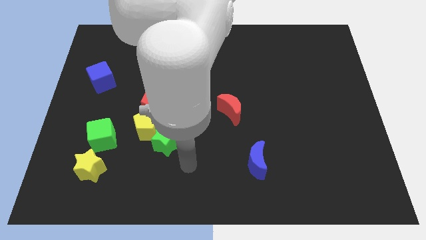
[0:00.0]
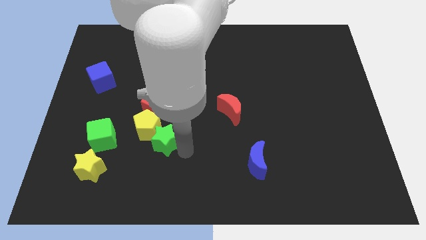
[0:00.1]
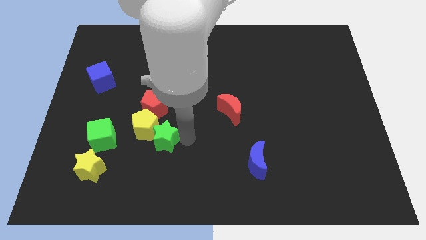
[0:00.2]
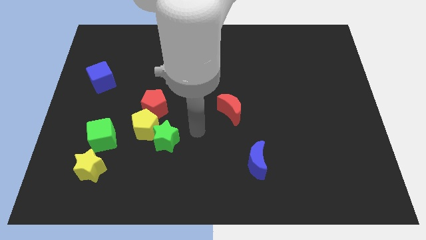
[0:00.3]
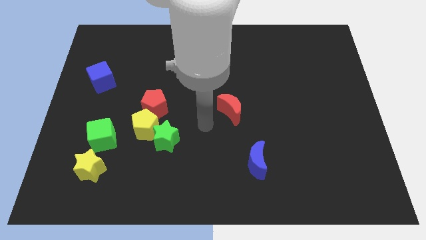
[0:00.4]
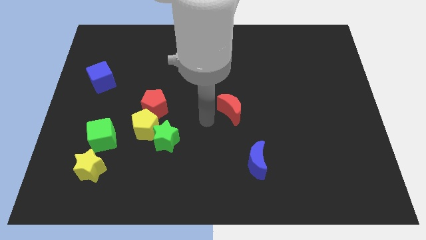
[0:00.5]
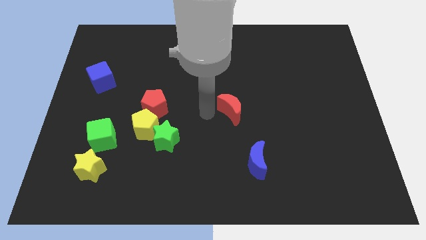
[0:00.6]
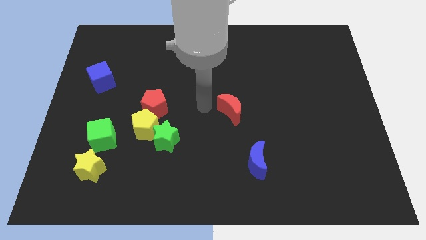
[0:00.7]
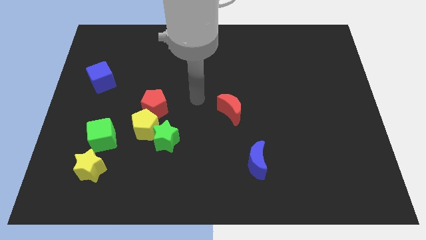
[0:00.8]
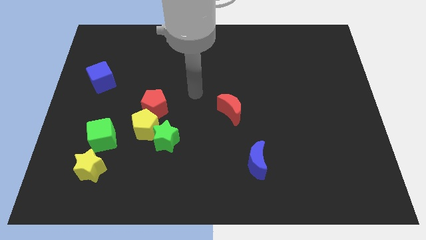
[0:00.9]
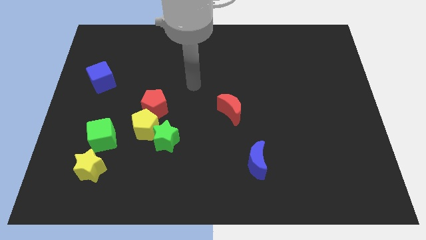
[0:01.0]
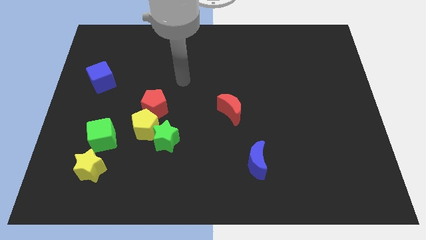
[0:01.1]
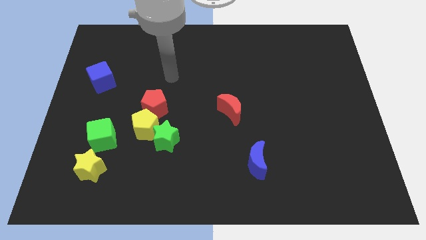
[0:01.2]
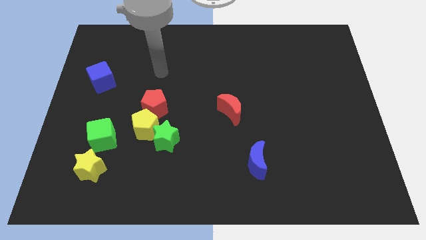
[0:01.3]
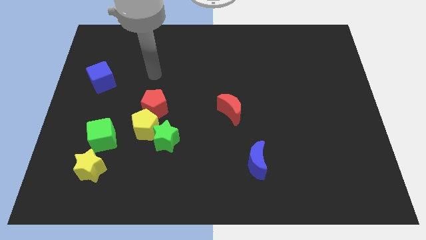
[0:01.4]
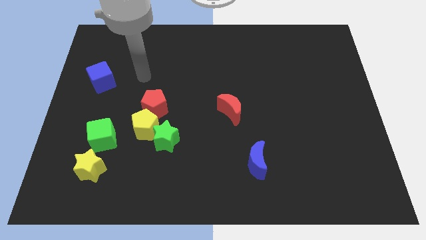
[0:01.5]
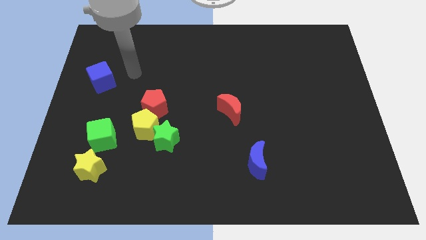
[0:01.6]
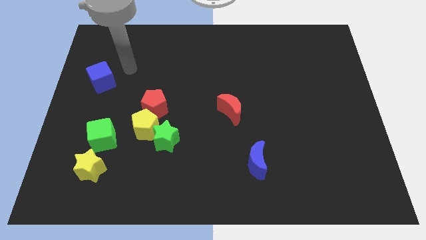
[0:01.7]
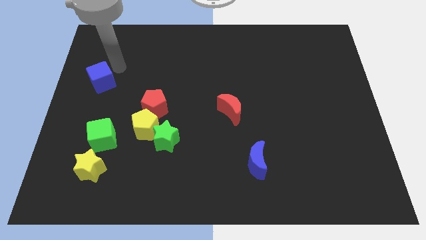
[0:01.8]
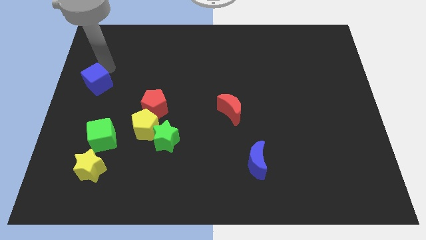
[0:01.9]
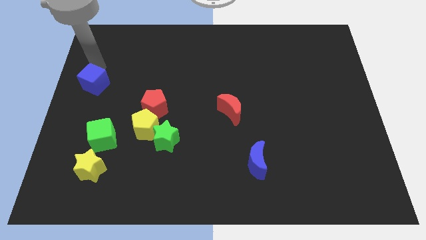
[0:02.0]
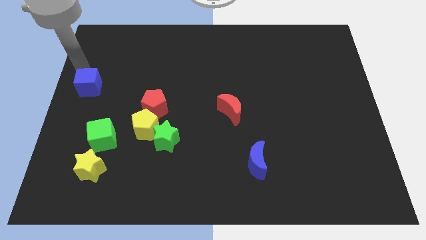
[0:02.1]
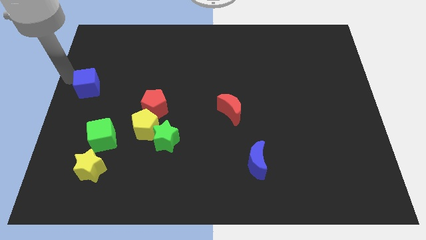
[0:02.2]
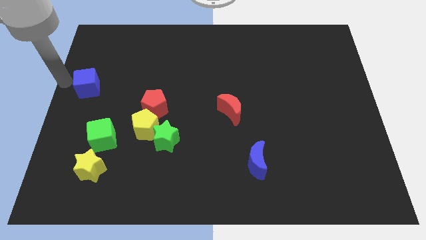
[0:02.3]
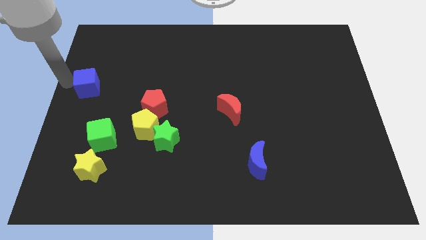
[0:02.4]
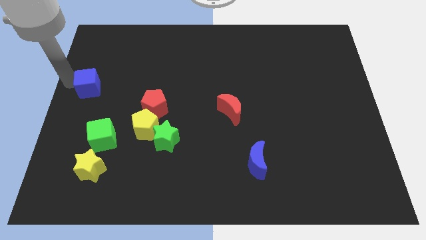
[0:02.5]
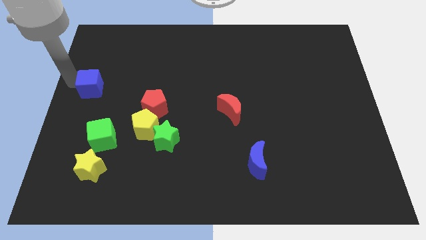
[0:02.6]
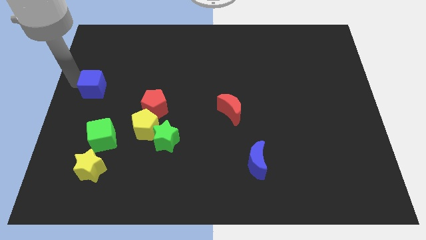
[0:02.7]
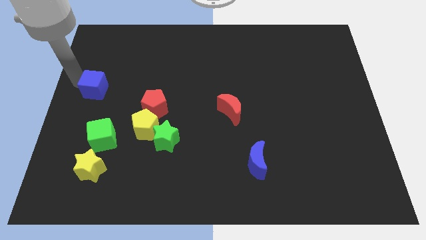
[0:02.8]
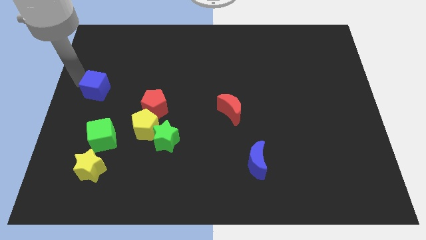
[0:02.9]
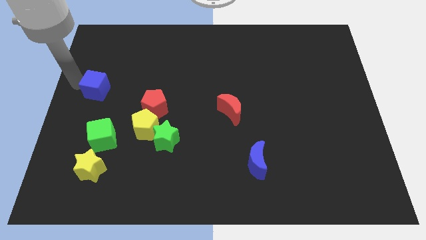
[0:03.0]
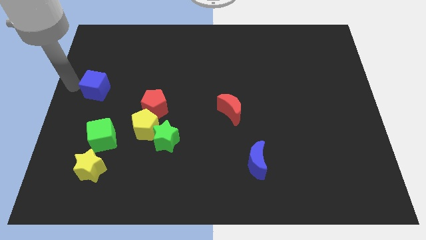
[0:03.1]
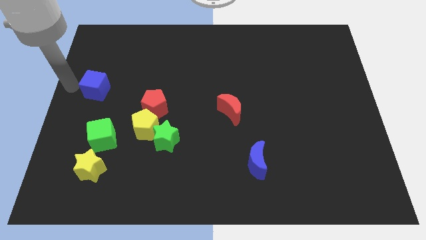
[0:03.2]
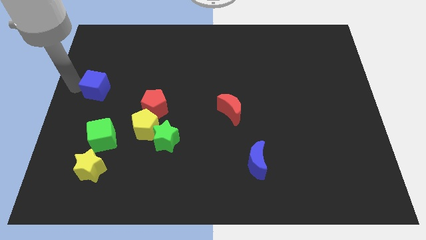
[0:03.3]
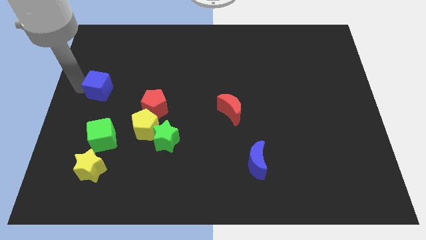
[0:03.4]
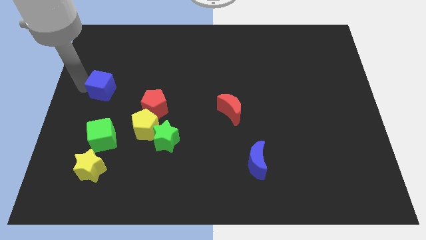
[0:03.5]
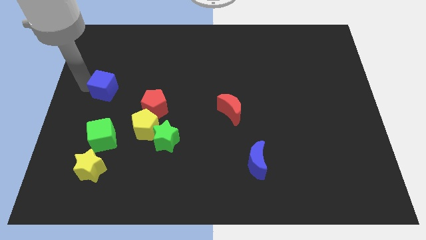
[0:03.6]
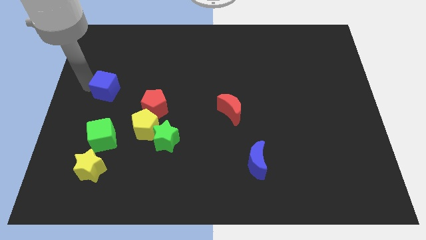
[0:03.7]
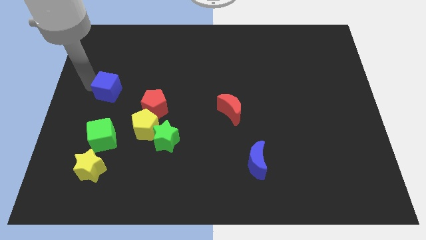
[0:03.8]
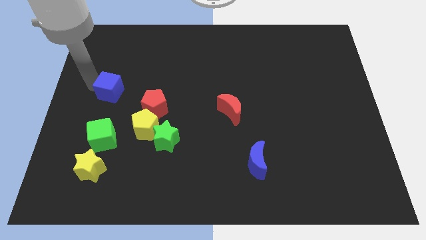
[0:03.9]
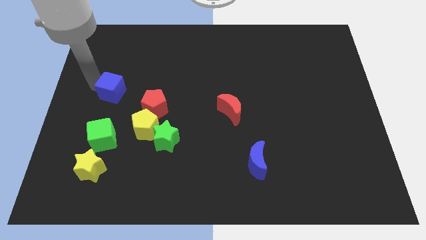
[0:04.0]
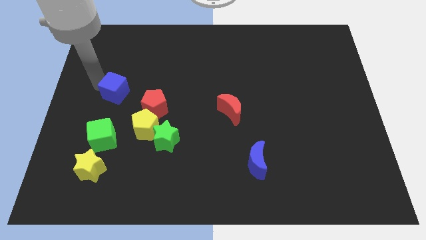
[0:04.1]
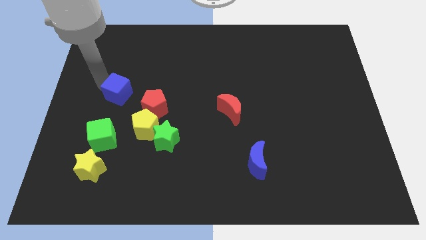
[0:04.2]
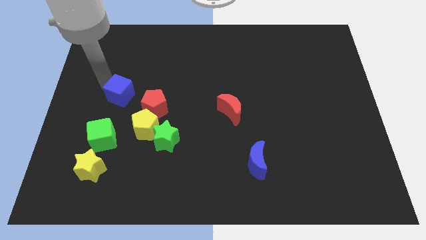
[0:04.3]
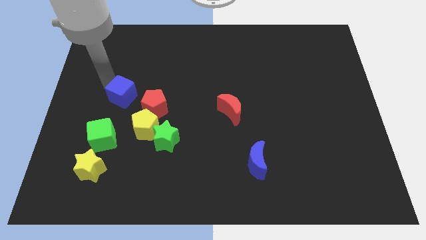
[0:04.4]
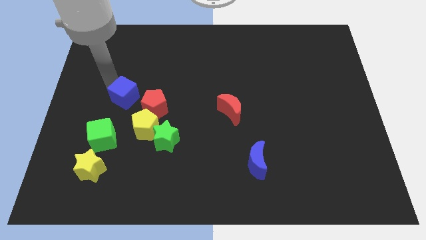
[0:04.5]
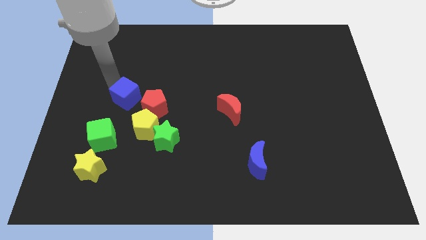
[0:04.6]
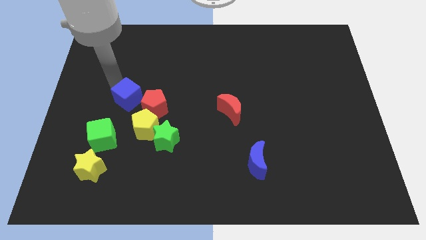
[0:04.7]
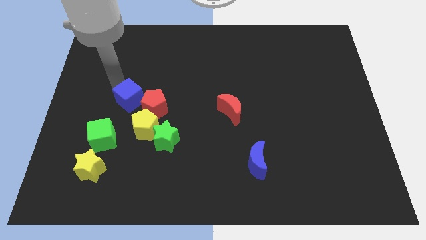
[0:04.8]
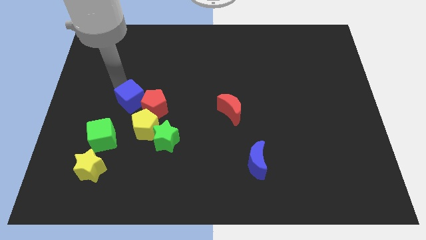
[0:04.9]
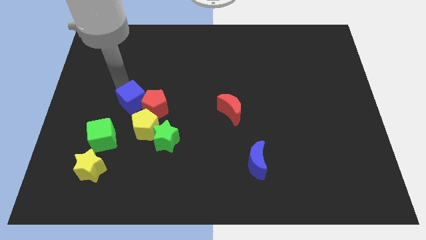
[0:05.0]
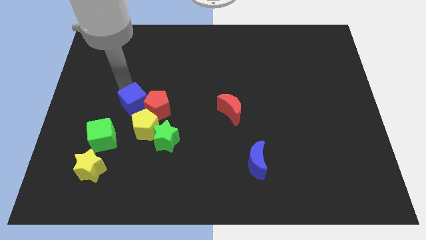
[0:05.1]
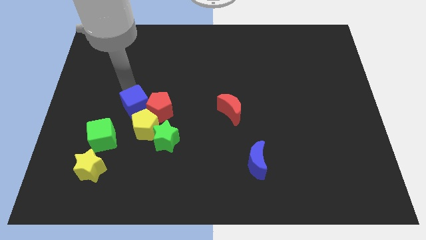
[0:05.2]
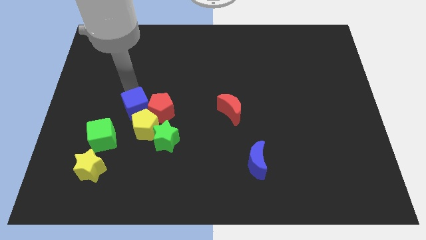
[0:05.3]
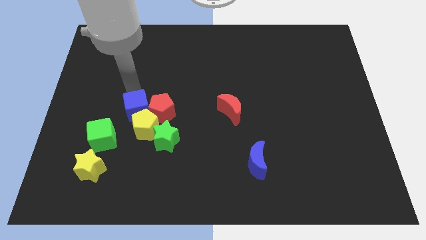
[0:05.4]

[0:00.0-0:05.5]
put the blue cube to the yellow pentagon

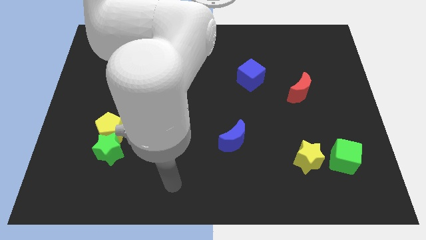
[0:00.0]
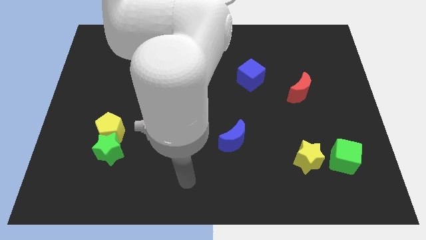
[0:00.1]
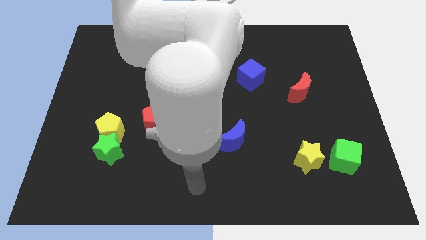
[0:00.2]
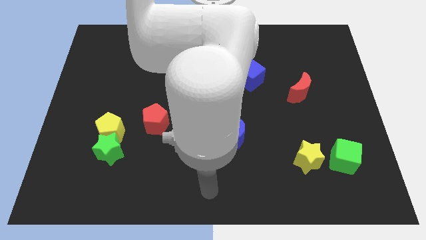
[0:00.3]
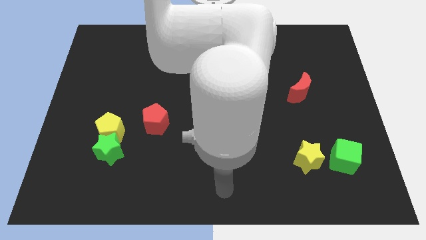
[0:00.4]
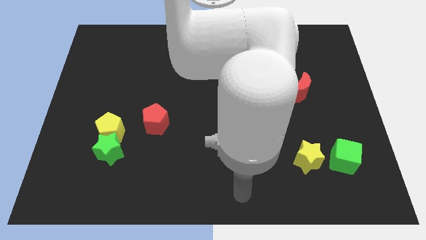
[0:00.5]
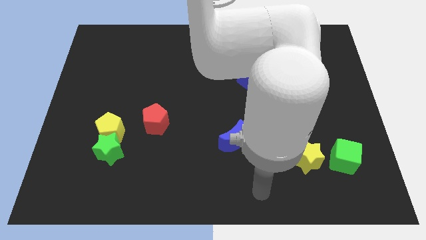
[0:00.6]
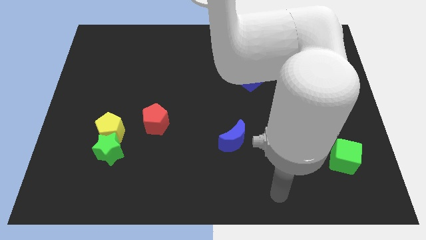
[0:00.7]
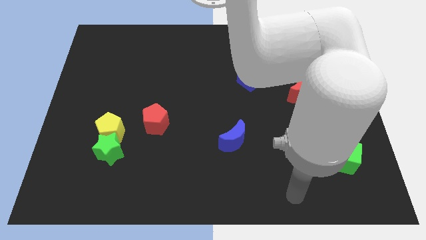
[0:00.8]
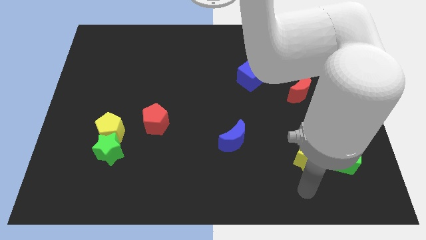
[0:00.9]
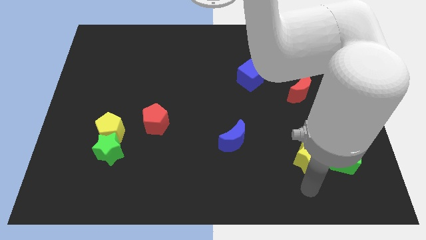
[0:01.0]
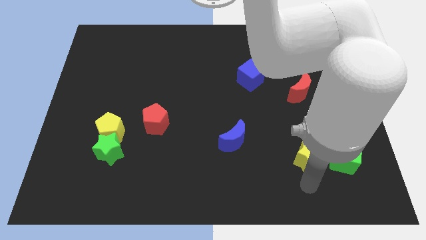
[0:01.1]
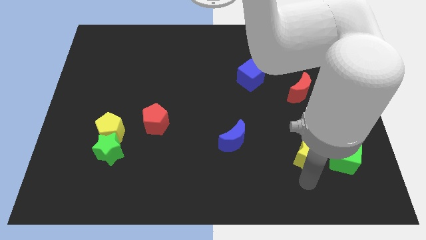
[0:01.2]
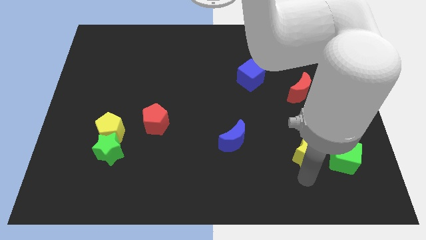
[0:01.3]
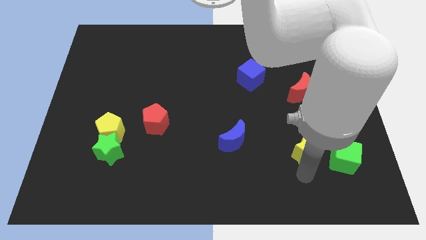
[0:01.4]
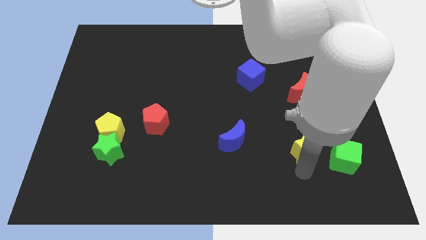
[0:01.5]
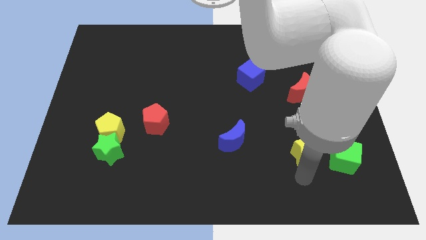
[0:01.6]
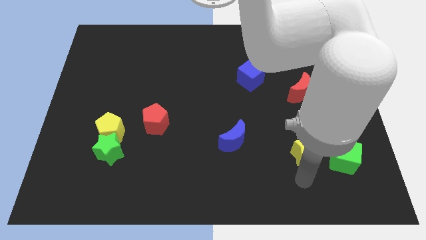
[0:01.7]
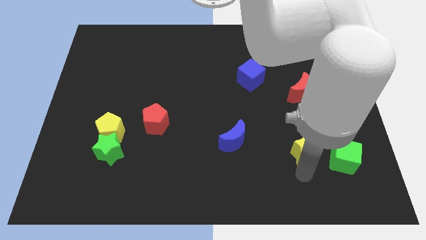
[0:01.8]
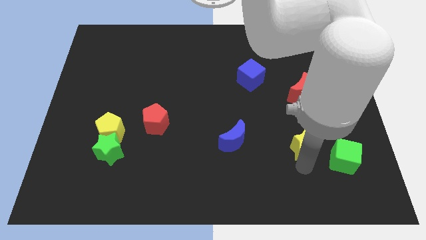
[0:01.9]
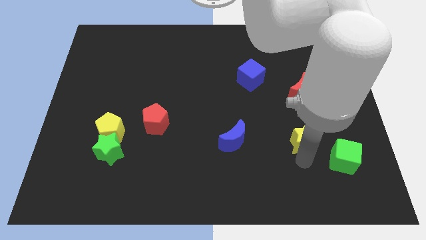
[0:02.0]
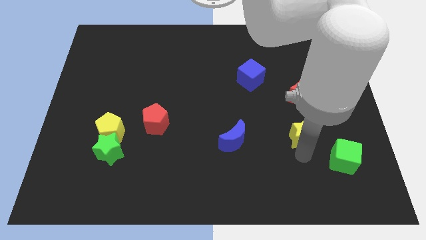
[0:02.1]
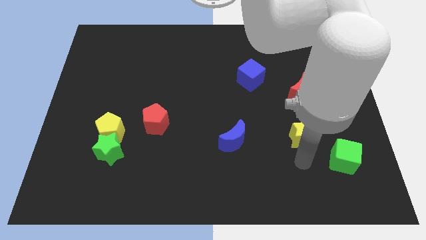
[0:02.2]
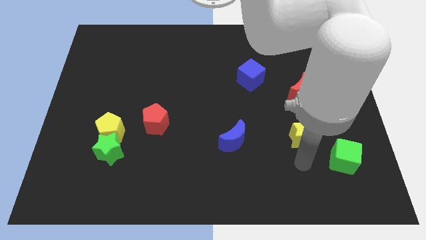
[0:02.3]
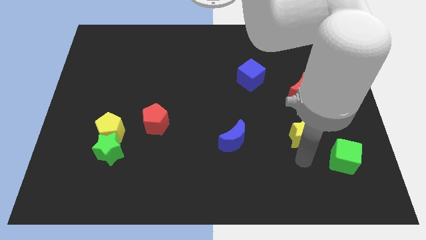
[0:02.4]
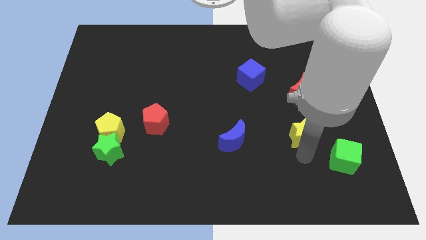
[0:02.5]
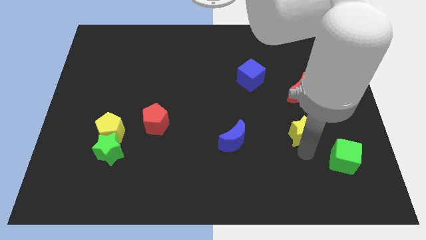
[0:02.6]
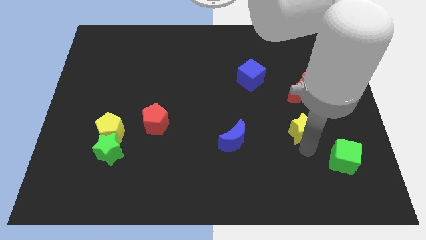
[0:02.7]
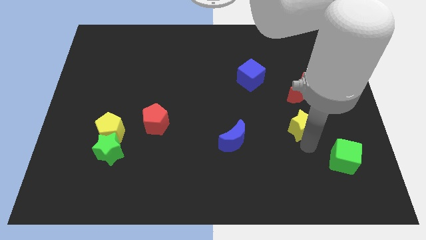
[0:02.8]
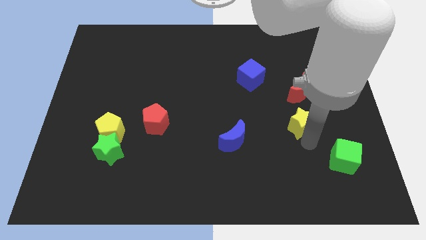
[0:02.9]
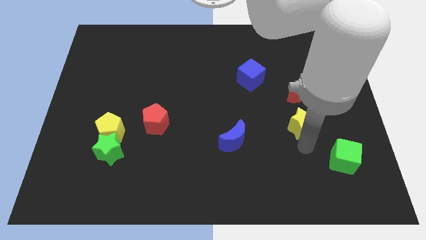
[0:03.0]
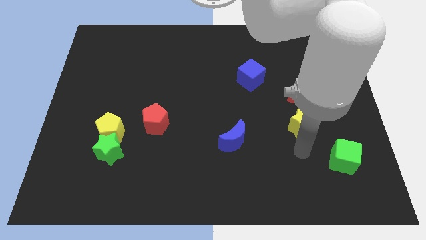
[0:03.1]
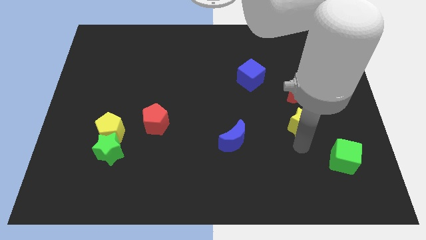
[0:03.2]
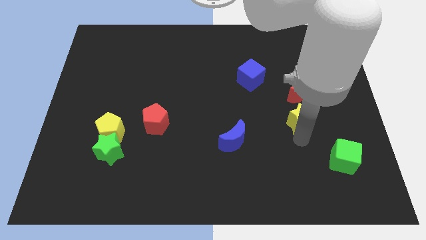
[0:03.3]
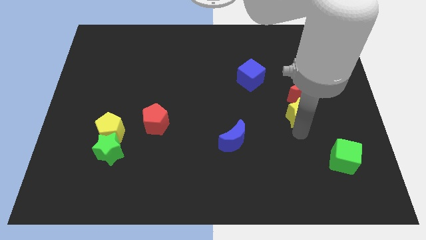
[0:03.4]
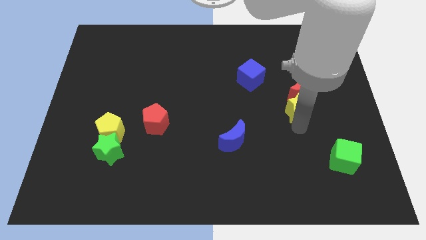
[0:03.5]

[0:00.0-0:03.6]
push the yellow star close to the red moon
